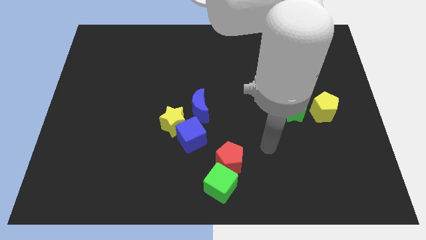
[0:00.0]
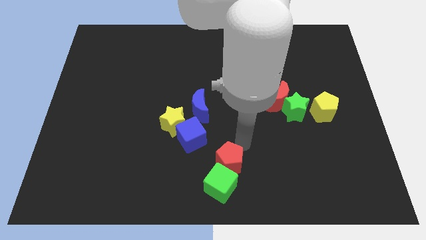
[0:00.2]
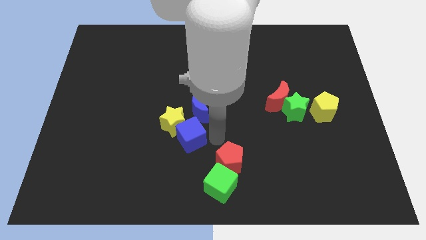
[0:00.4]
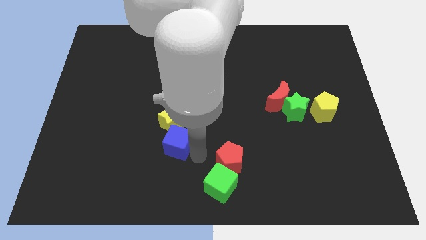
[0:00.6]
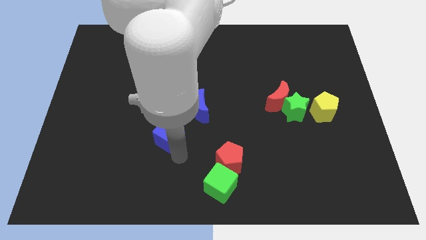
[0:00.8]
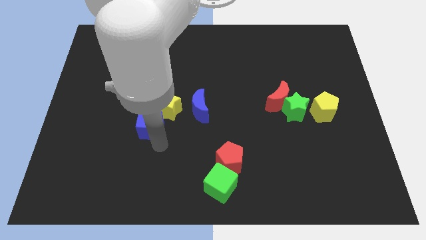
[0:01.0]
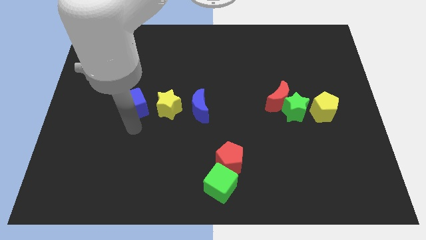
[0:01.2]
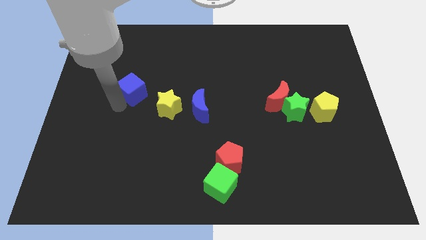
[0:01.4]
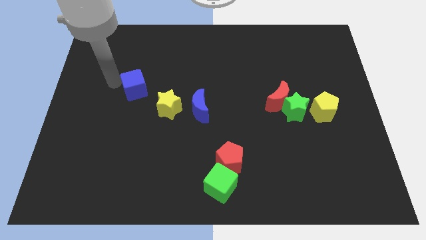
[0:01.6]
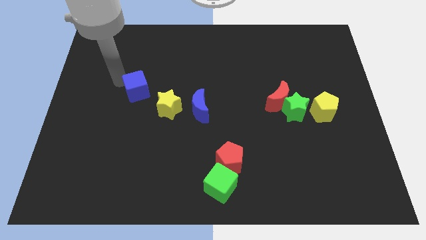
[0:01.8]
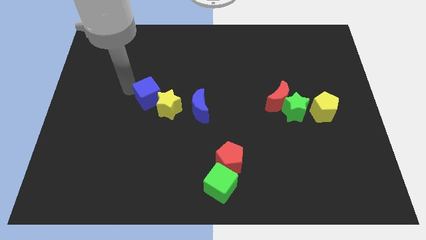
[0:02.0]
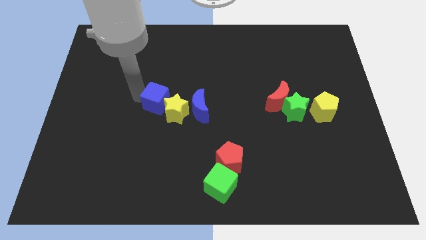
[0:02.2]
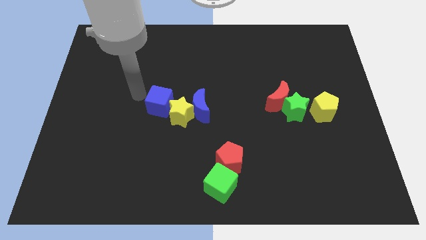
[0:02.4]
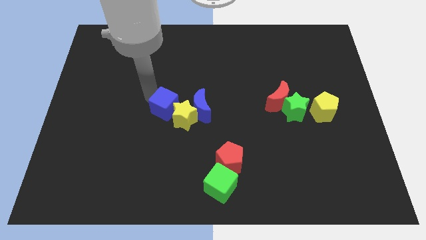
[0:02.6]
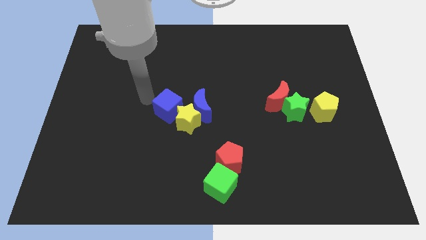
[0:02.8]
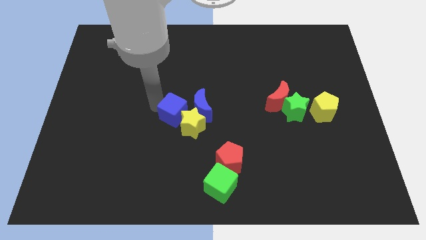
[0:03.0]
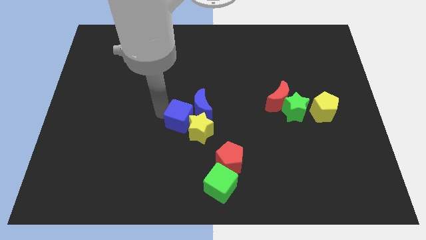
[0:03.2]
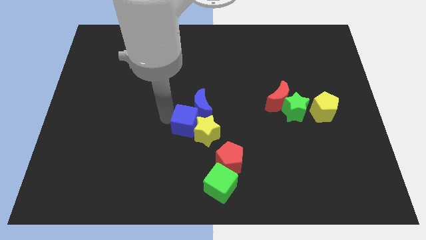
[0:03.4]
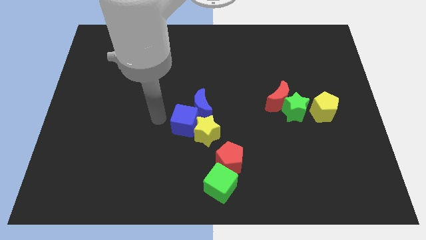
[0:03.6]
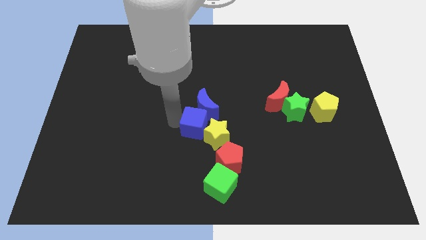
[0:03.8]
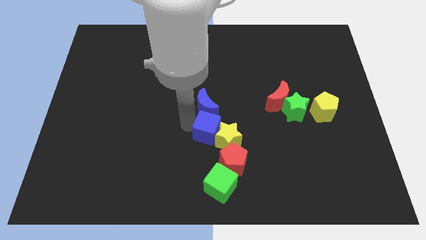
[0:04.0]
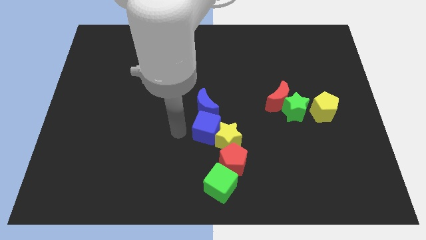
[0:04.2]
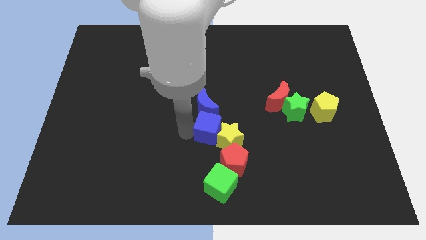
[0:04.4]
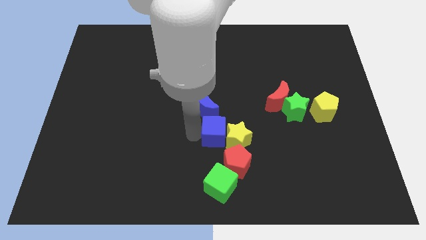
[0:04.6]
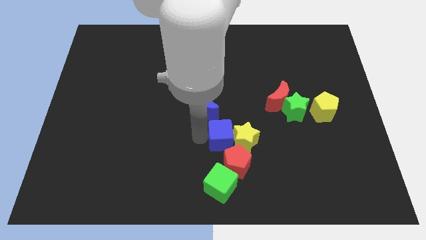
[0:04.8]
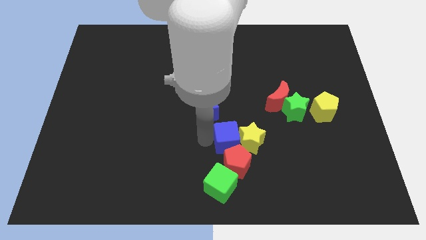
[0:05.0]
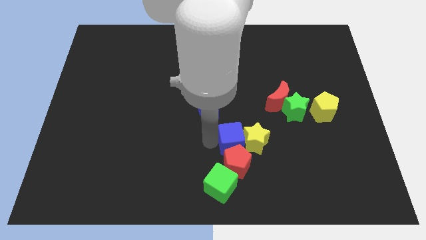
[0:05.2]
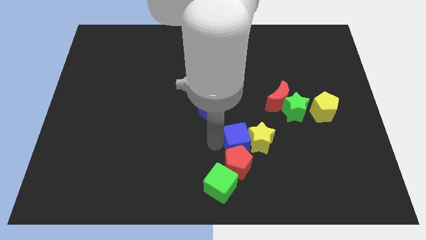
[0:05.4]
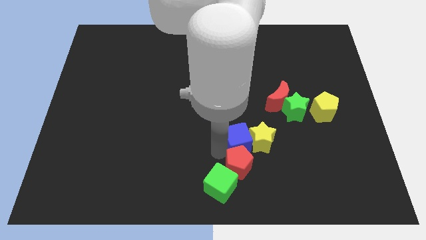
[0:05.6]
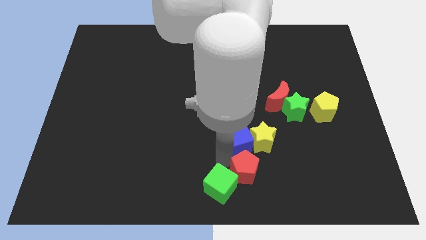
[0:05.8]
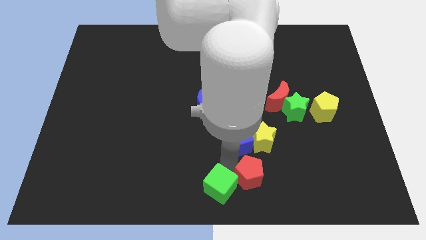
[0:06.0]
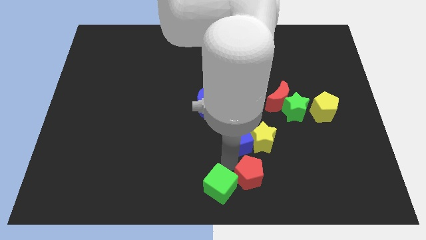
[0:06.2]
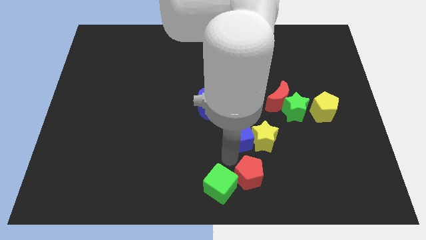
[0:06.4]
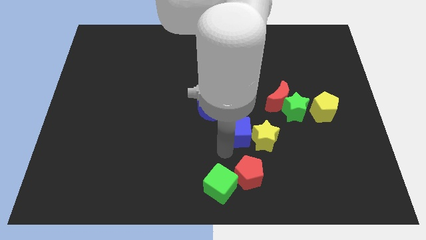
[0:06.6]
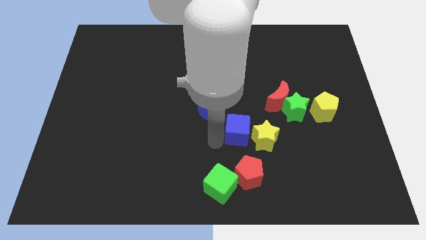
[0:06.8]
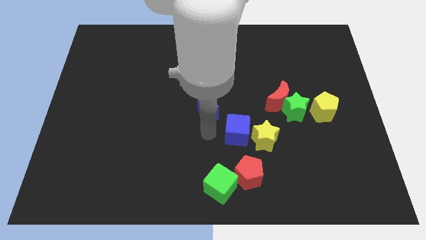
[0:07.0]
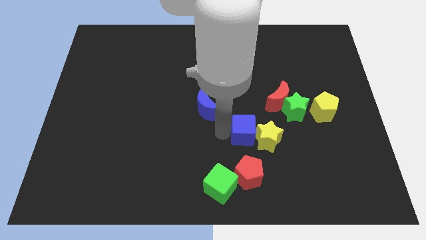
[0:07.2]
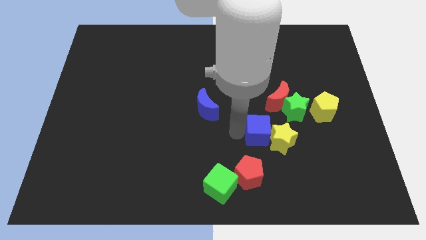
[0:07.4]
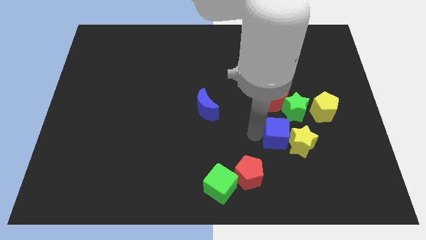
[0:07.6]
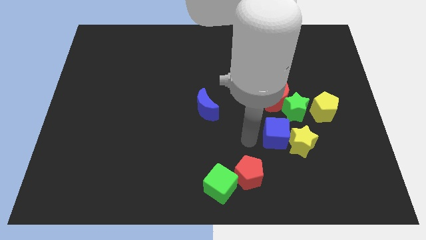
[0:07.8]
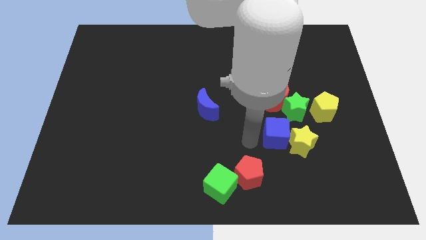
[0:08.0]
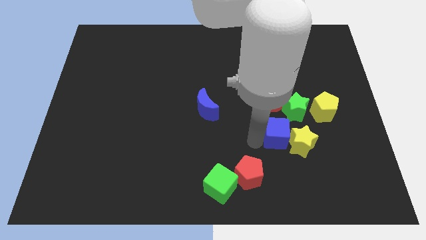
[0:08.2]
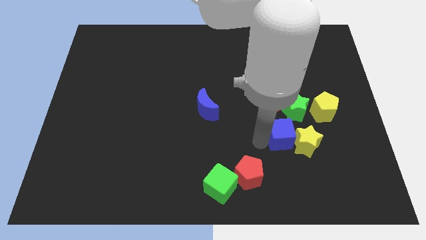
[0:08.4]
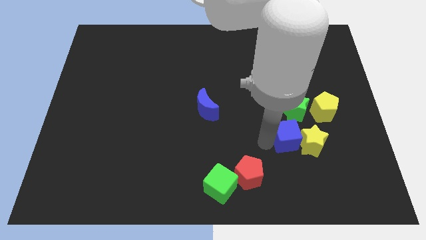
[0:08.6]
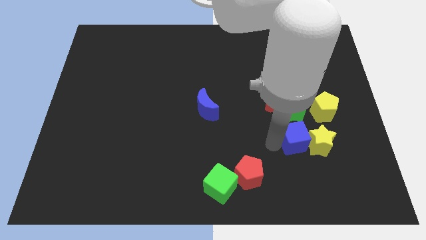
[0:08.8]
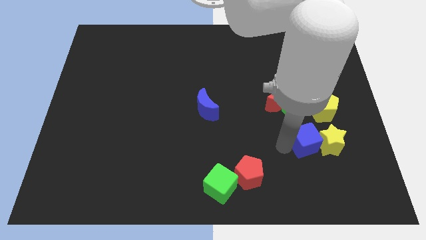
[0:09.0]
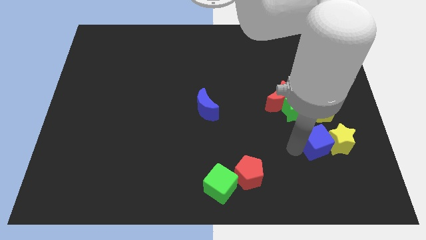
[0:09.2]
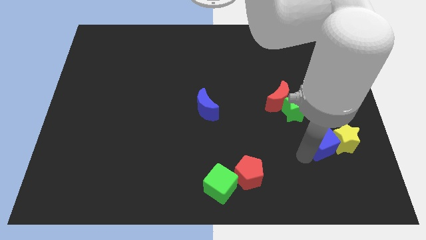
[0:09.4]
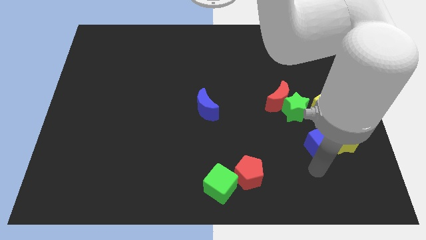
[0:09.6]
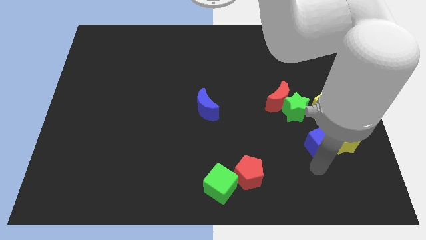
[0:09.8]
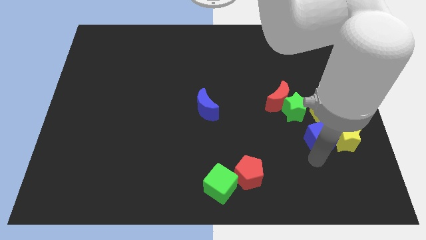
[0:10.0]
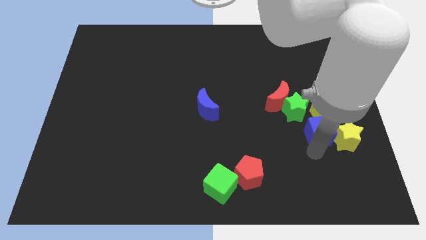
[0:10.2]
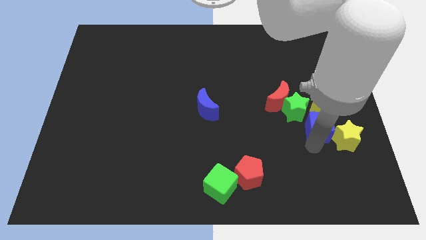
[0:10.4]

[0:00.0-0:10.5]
put the blue cube close to the yellow pentagon

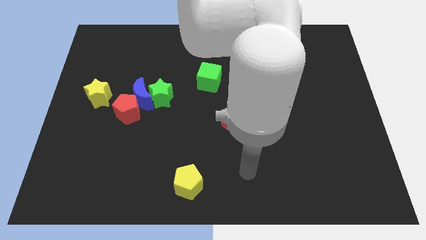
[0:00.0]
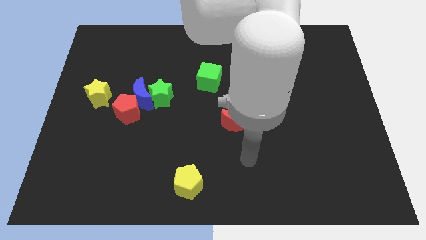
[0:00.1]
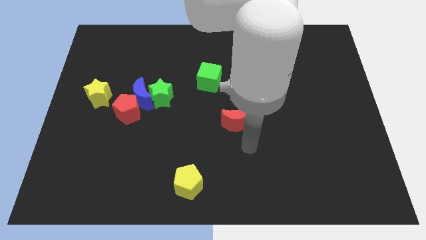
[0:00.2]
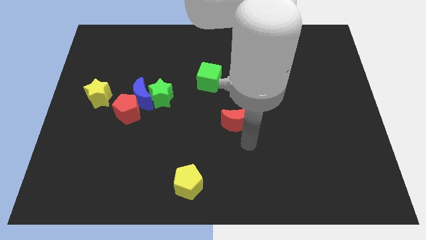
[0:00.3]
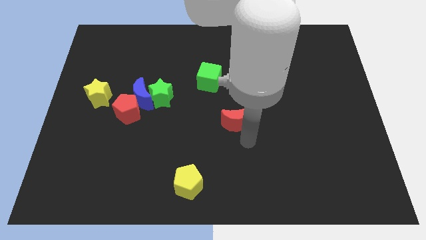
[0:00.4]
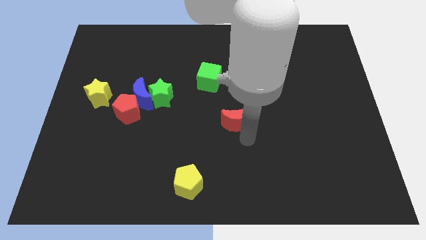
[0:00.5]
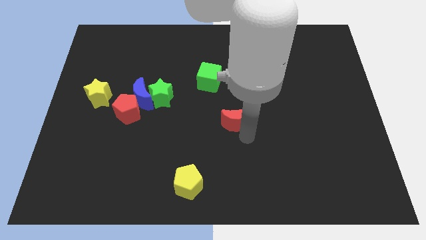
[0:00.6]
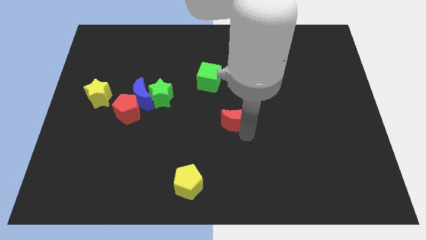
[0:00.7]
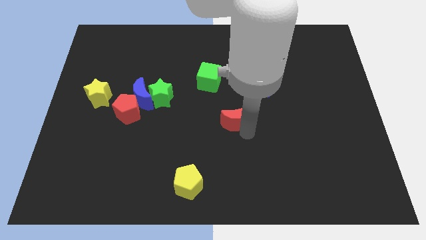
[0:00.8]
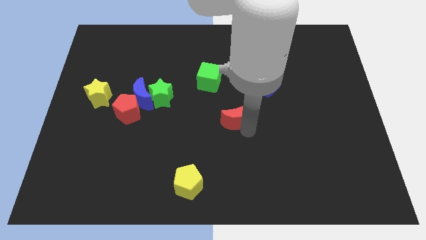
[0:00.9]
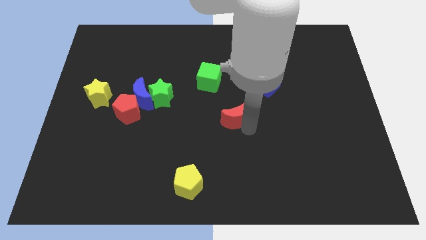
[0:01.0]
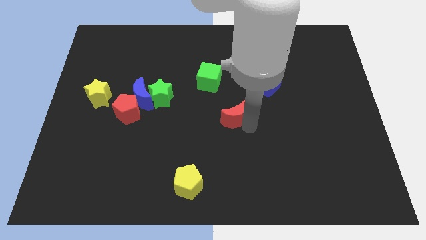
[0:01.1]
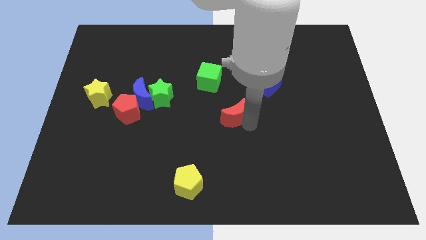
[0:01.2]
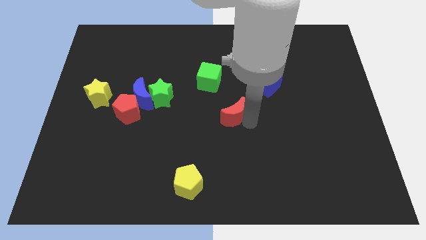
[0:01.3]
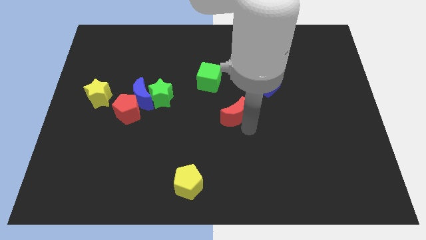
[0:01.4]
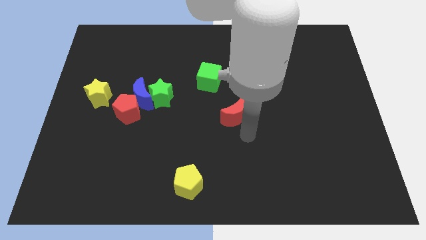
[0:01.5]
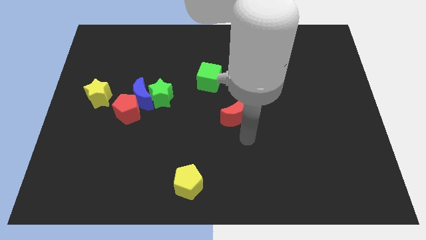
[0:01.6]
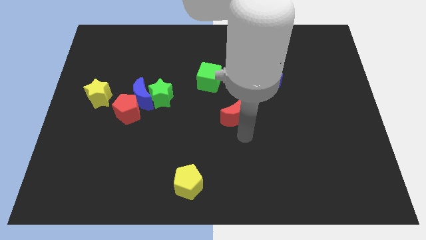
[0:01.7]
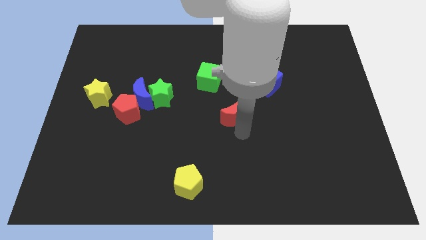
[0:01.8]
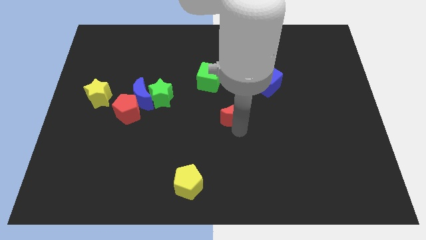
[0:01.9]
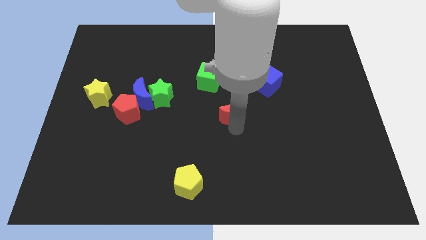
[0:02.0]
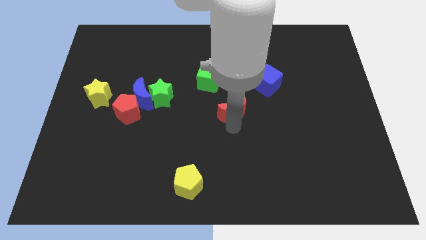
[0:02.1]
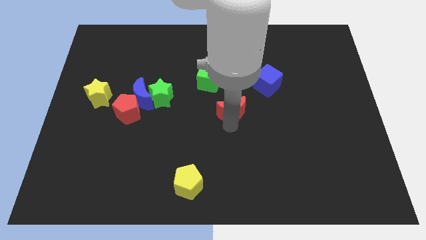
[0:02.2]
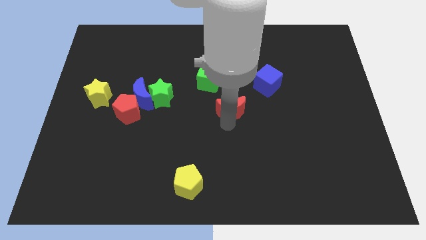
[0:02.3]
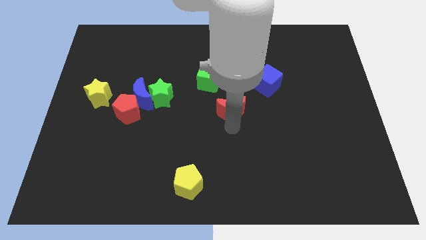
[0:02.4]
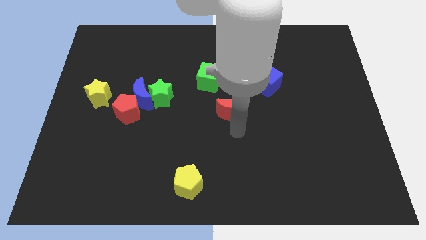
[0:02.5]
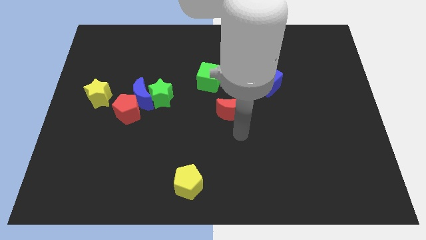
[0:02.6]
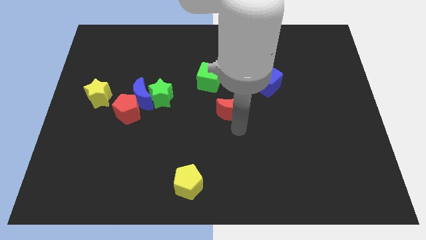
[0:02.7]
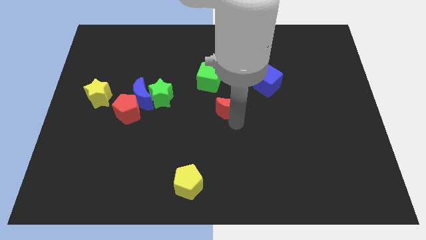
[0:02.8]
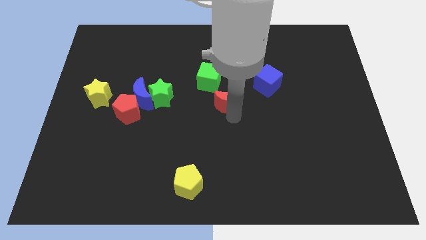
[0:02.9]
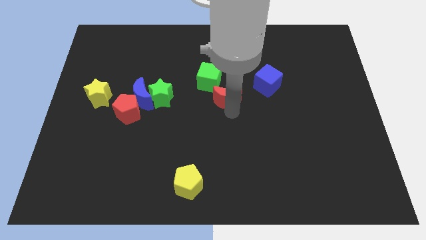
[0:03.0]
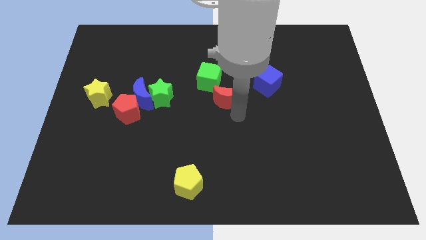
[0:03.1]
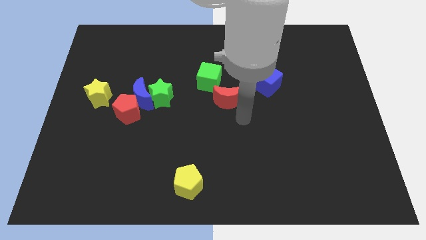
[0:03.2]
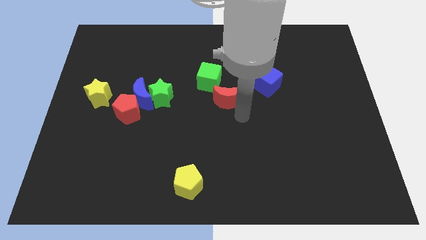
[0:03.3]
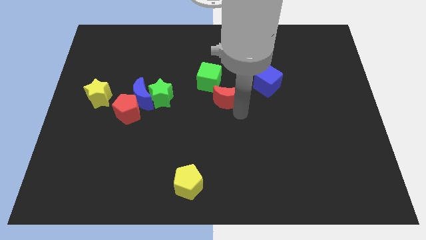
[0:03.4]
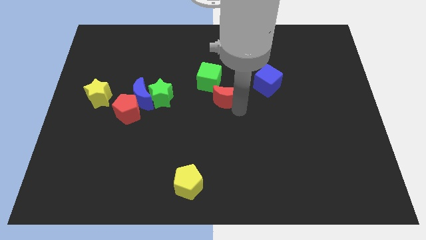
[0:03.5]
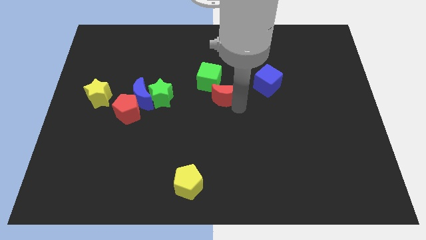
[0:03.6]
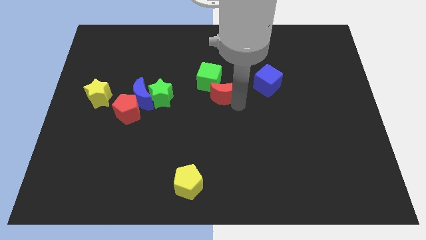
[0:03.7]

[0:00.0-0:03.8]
put the red moon next to the green cube
